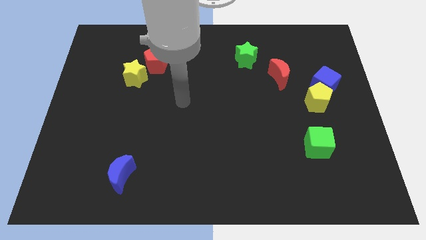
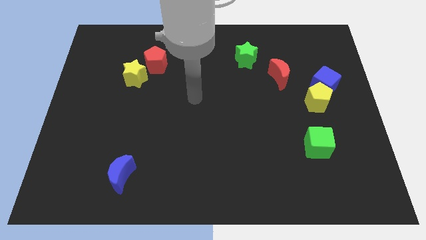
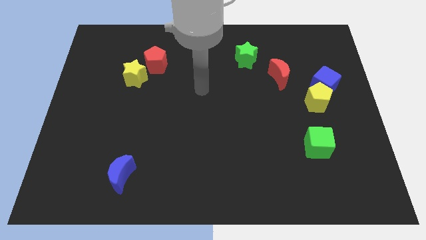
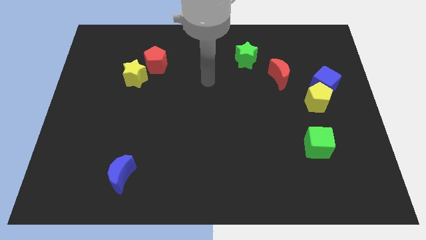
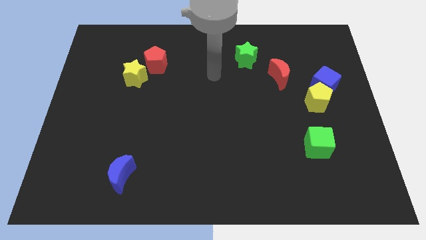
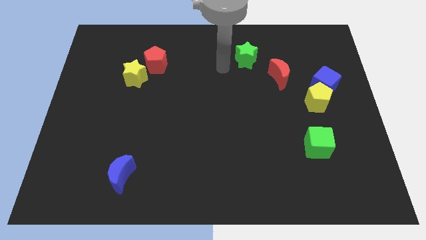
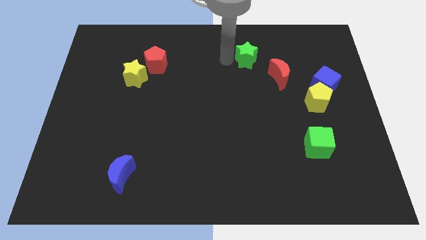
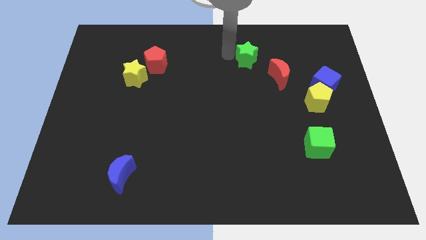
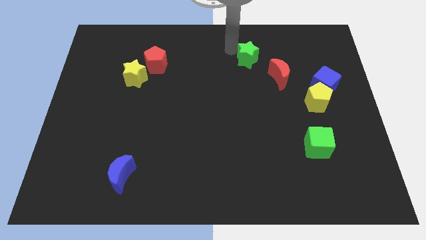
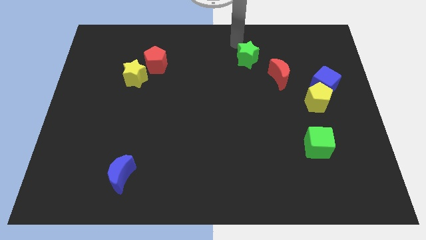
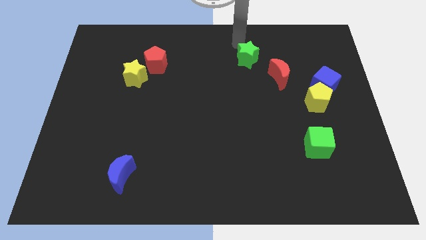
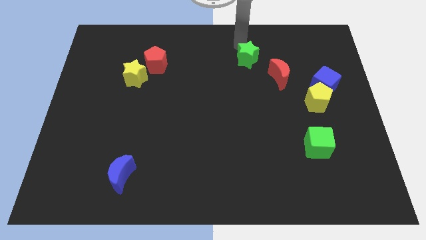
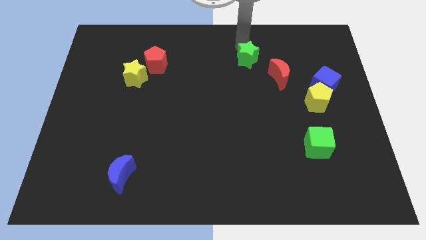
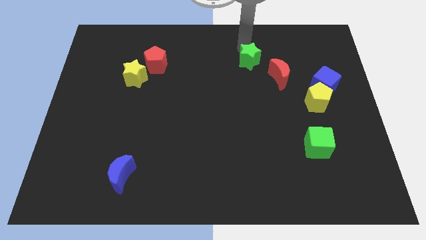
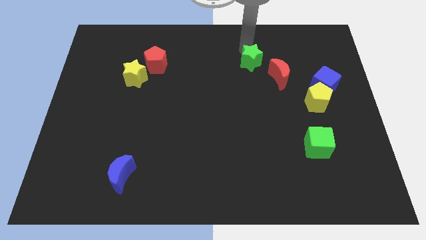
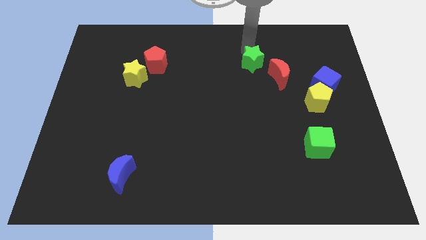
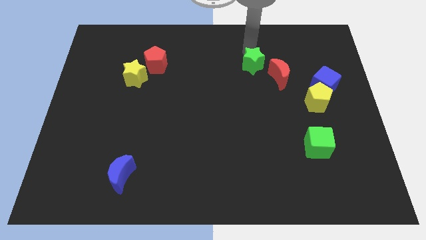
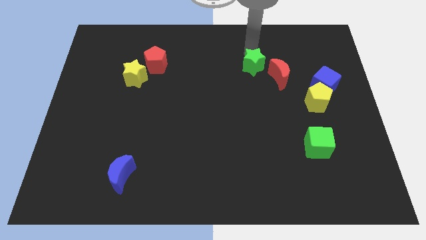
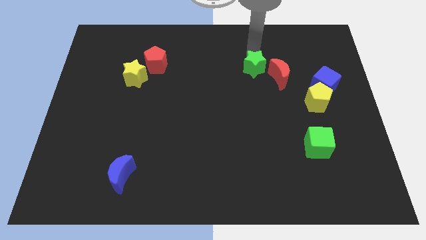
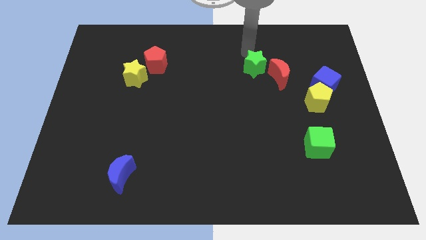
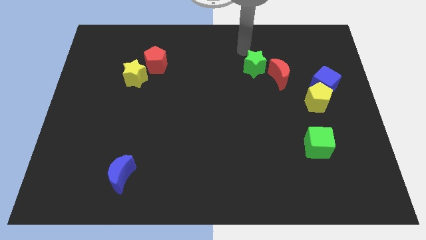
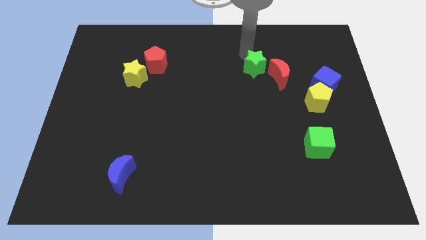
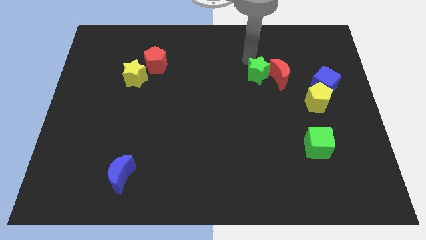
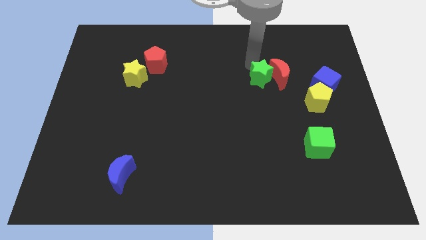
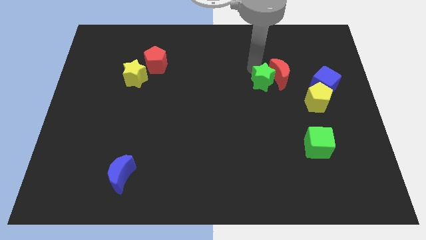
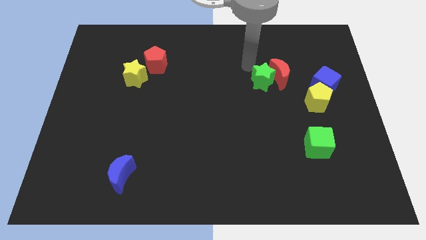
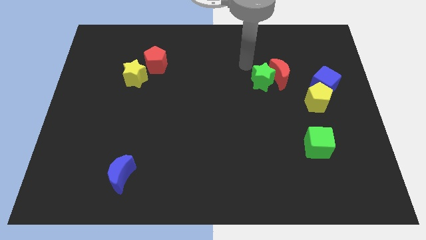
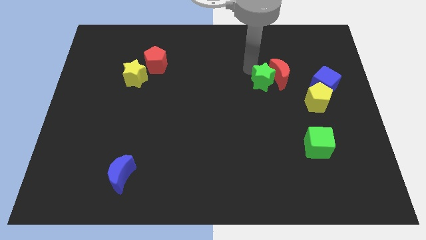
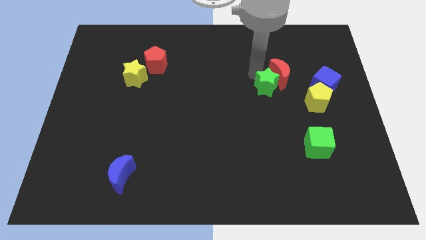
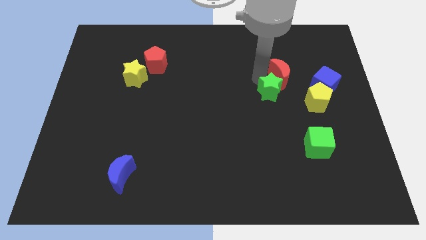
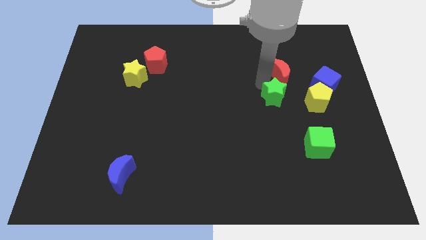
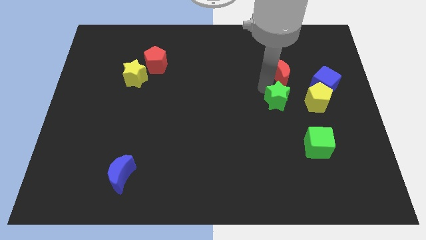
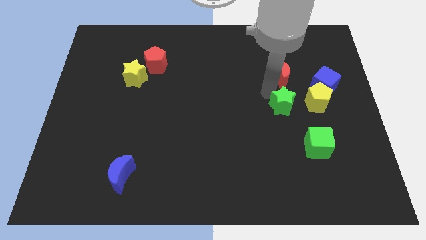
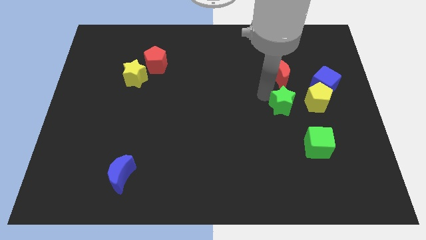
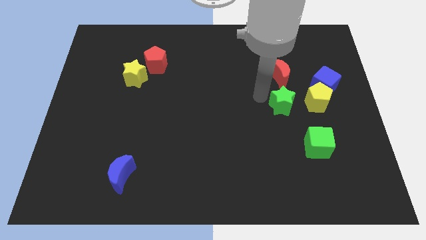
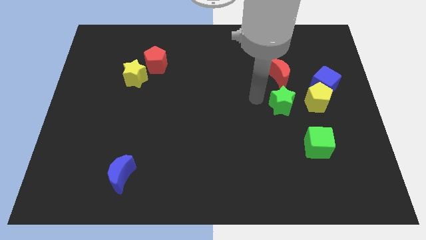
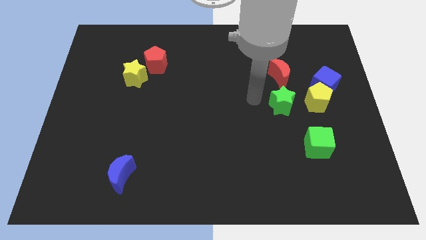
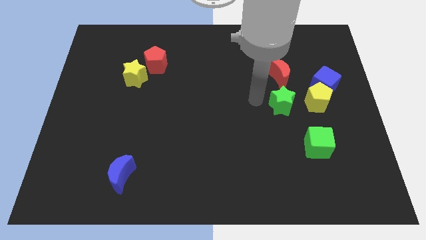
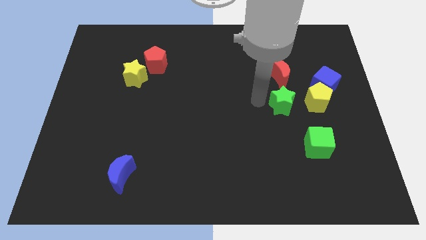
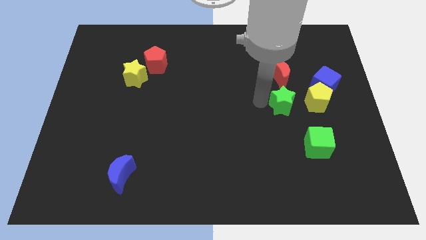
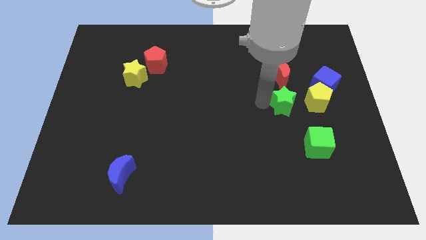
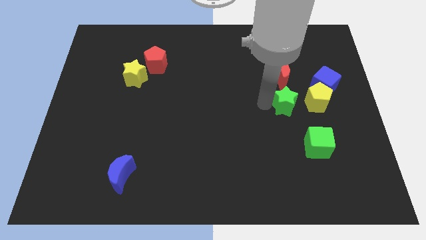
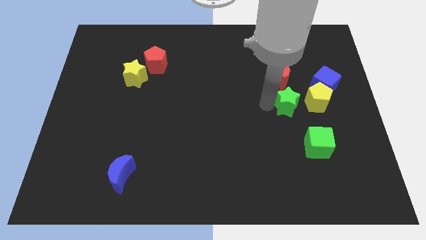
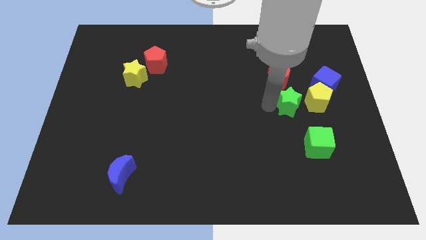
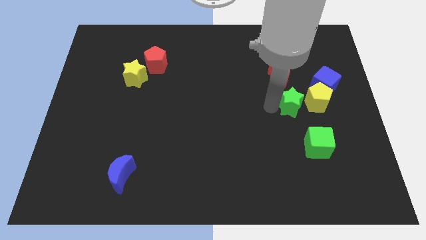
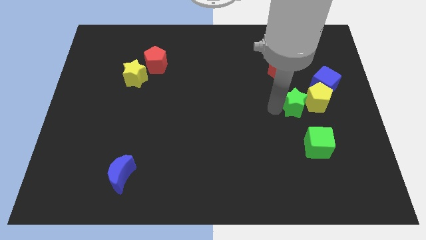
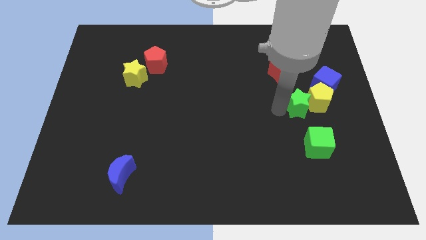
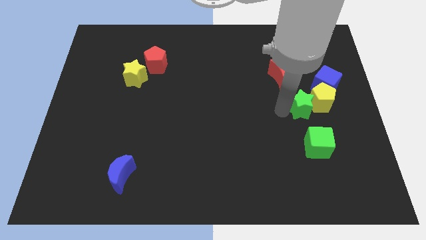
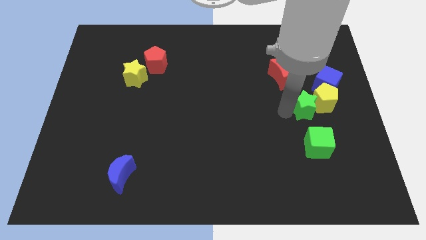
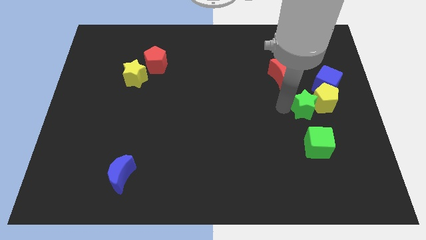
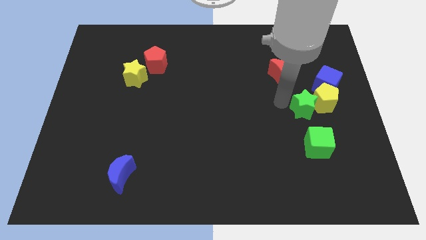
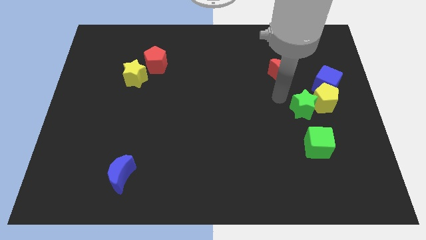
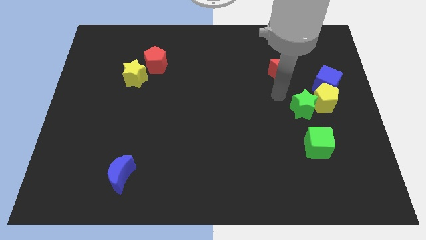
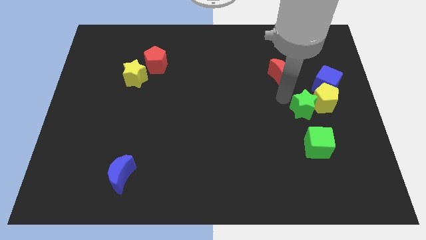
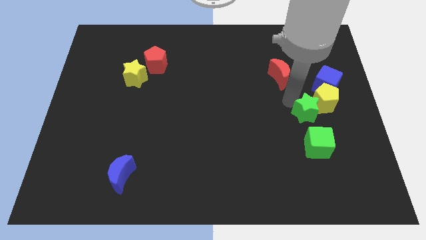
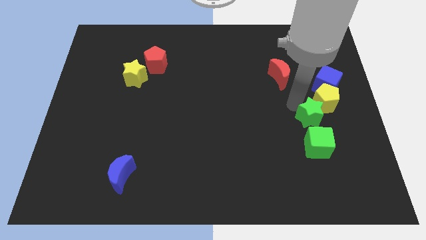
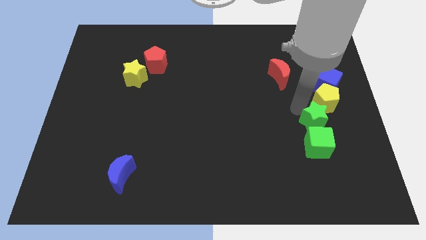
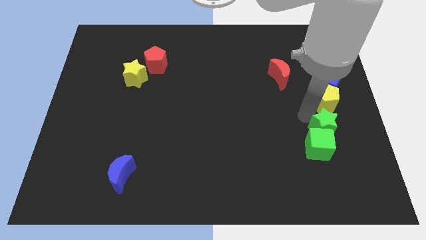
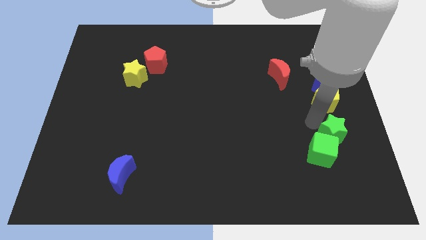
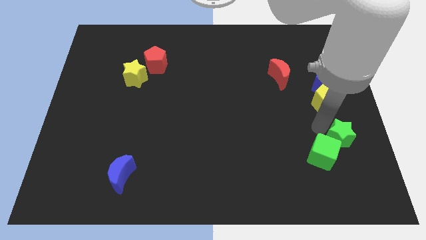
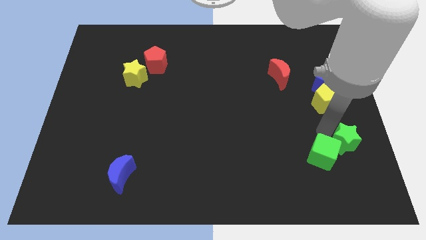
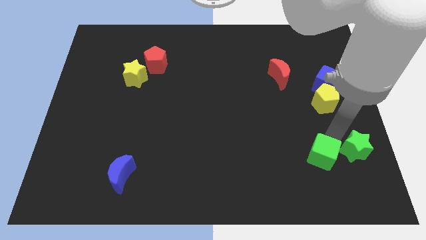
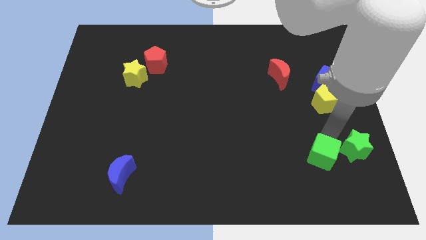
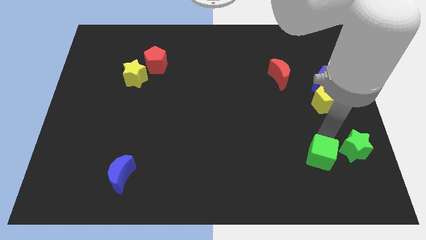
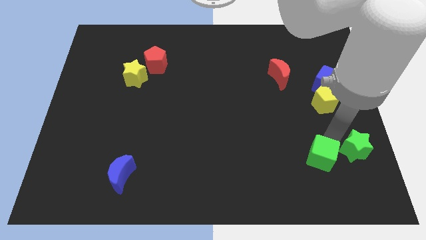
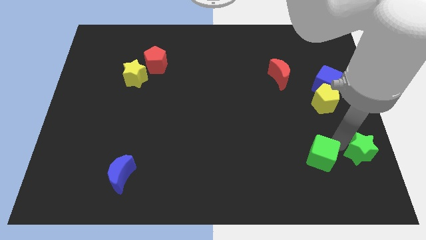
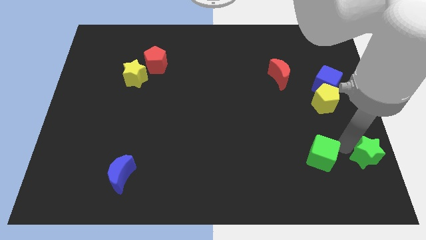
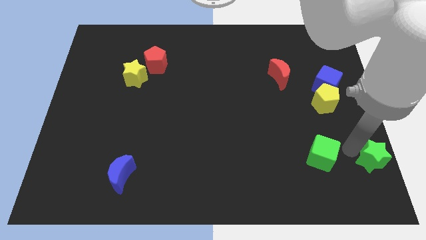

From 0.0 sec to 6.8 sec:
move the green star to the bottom right
